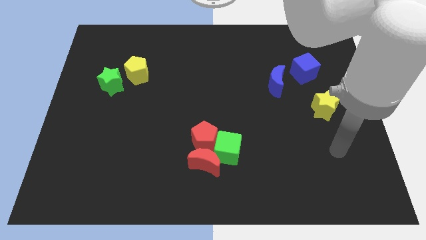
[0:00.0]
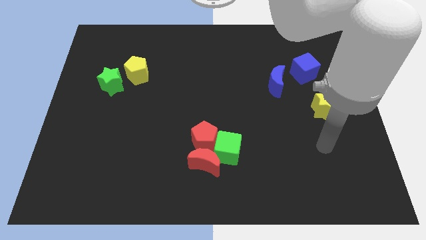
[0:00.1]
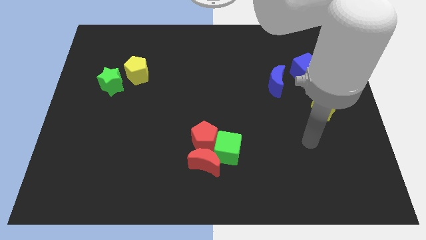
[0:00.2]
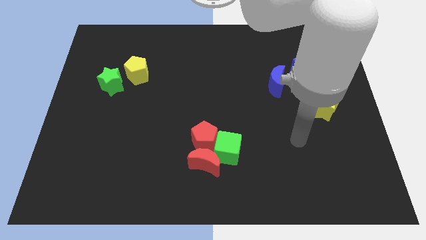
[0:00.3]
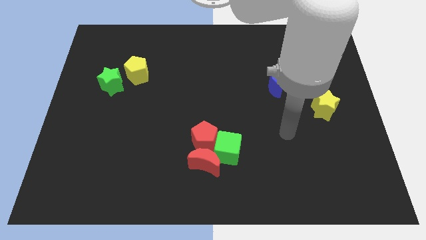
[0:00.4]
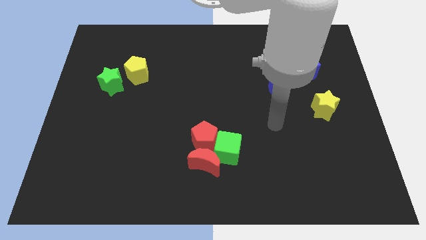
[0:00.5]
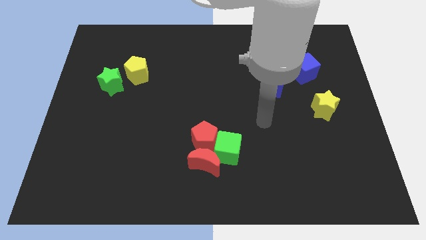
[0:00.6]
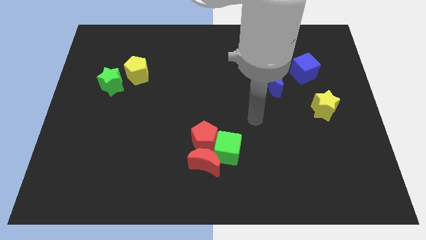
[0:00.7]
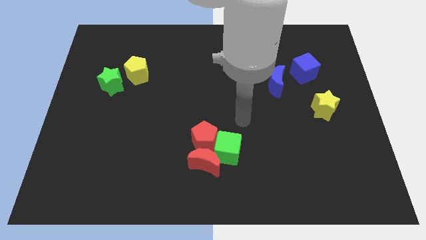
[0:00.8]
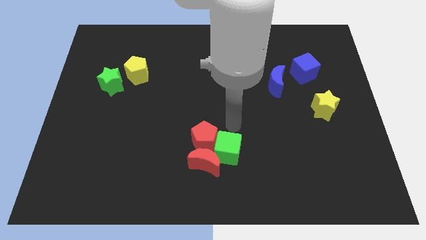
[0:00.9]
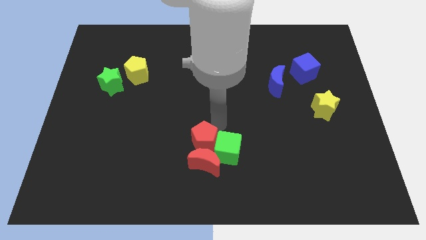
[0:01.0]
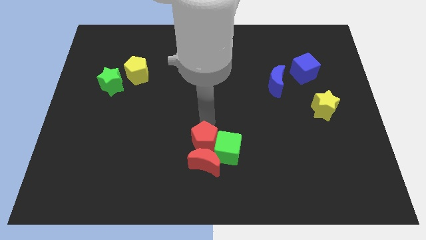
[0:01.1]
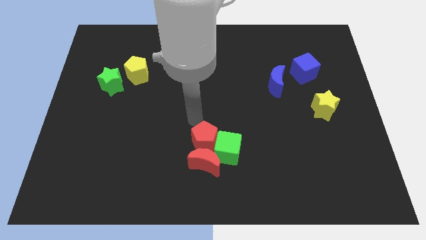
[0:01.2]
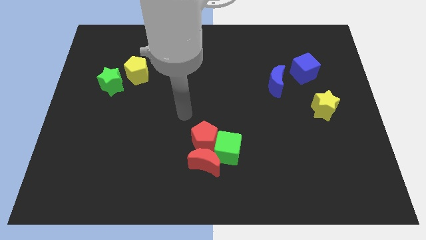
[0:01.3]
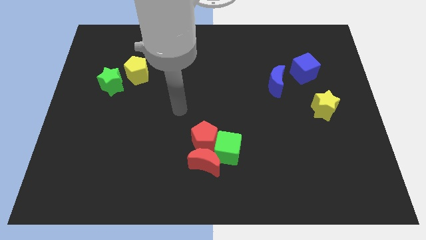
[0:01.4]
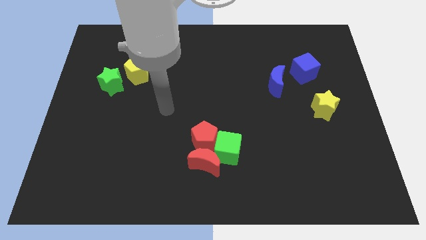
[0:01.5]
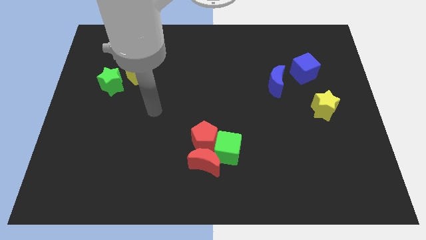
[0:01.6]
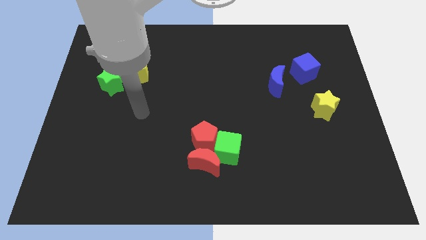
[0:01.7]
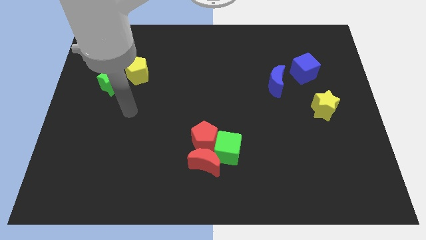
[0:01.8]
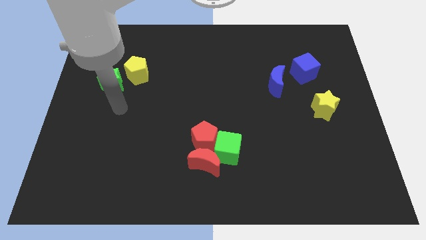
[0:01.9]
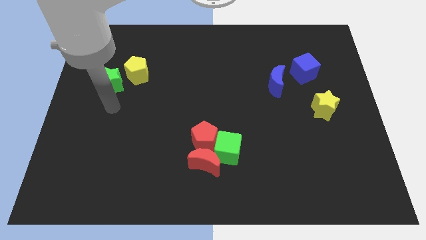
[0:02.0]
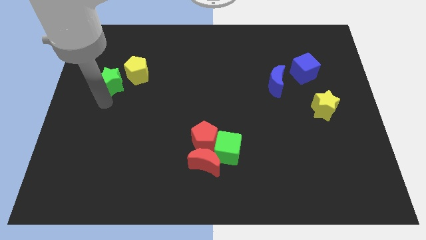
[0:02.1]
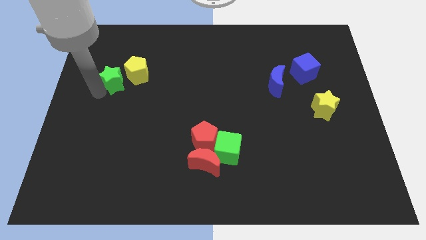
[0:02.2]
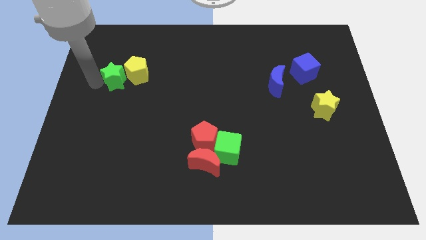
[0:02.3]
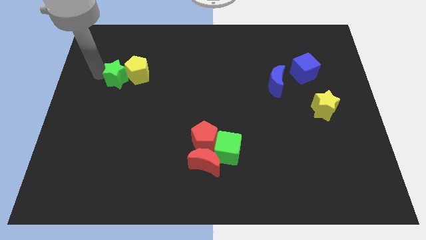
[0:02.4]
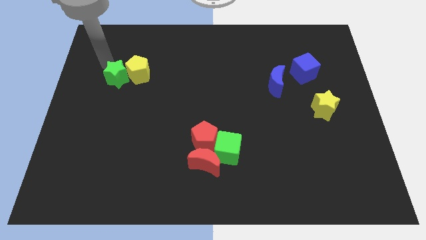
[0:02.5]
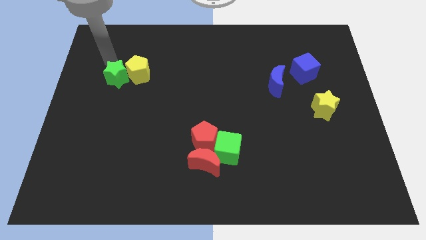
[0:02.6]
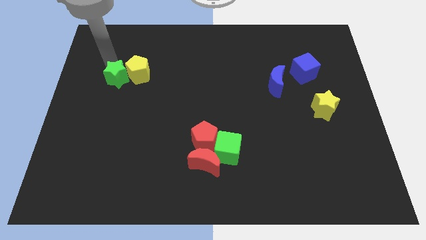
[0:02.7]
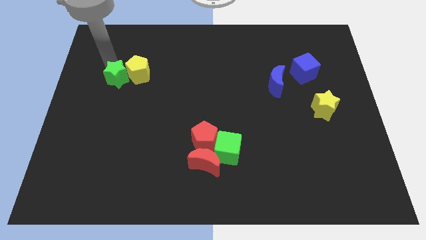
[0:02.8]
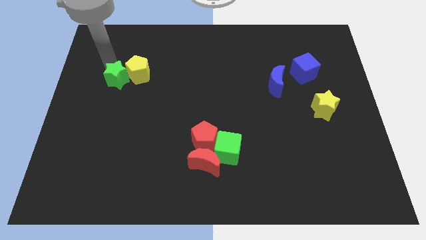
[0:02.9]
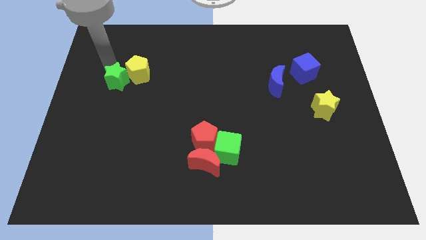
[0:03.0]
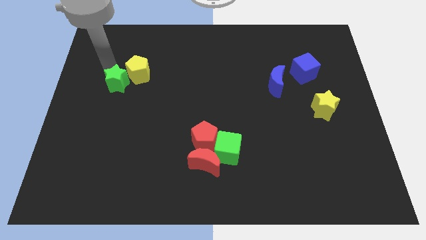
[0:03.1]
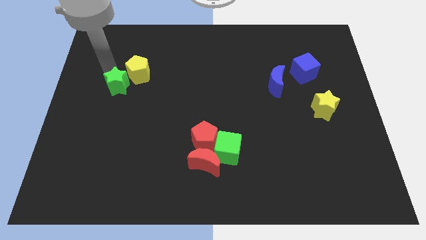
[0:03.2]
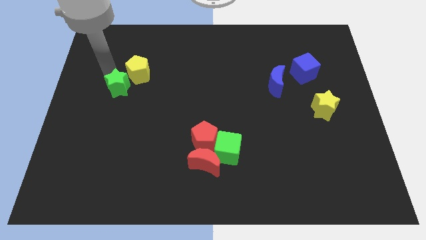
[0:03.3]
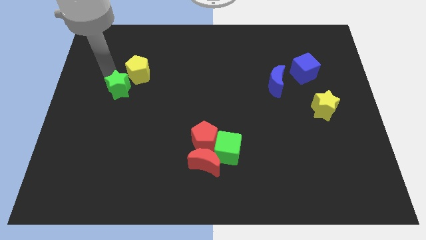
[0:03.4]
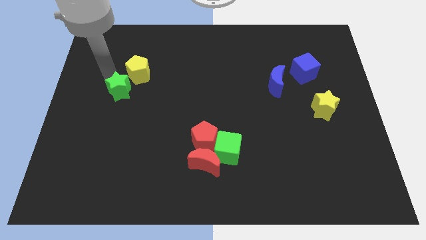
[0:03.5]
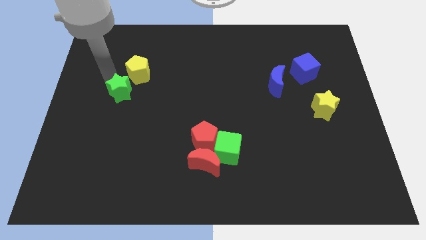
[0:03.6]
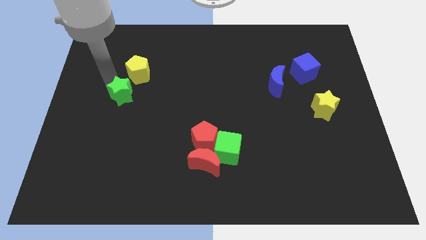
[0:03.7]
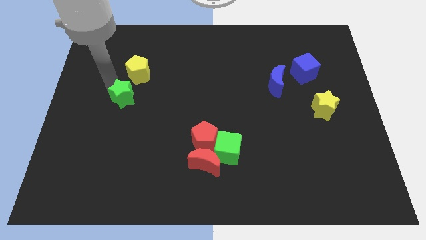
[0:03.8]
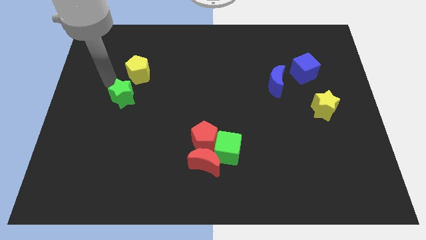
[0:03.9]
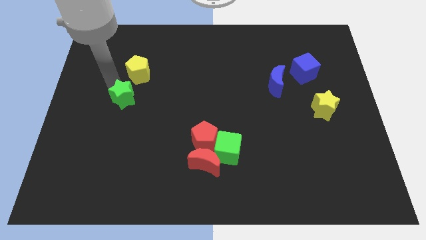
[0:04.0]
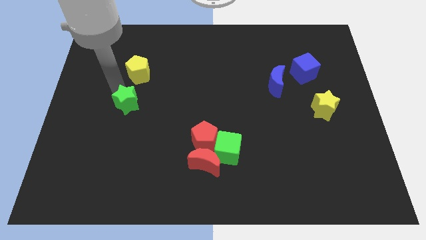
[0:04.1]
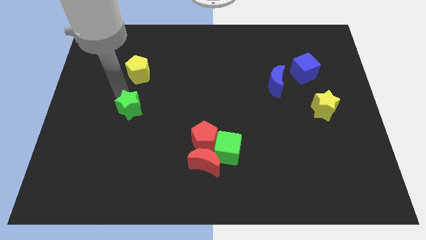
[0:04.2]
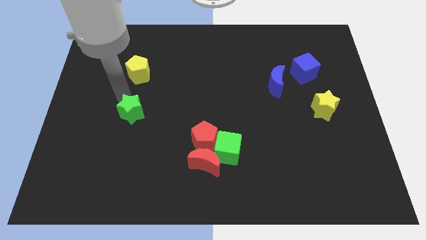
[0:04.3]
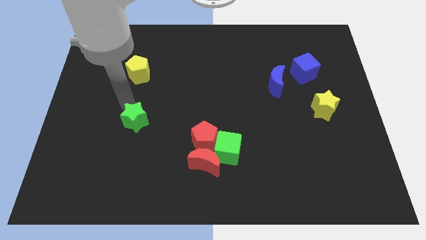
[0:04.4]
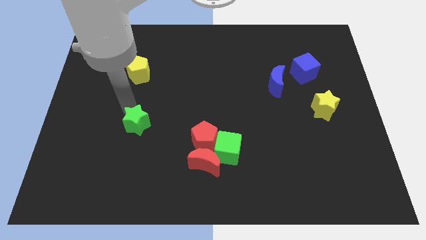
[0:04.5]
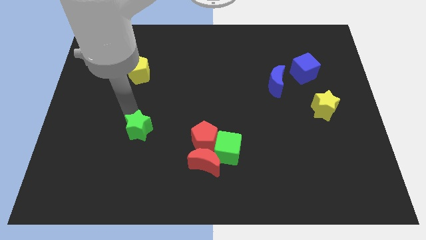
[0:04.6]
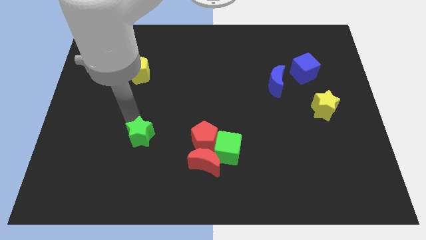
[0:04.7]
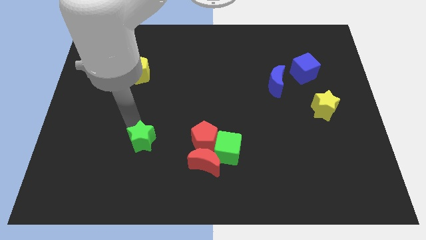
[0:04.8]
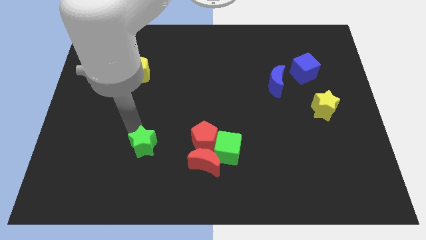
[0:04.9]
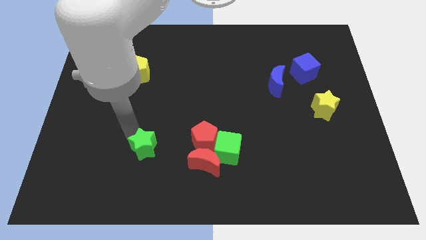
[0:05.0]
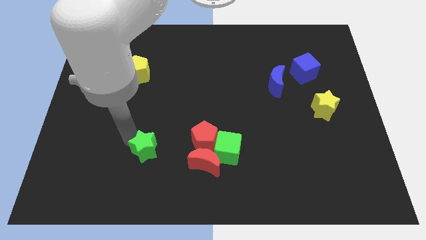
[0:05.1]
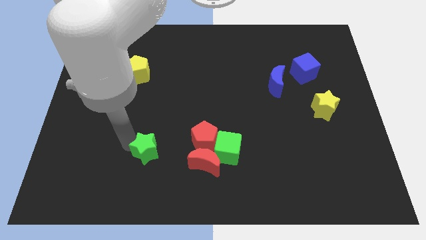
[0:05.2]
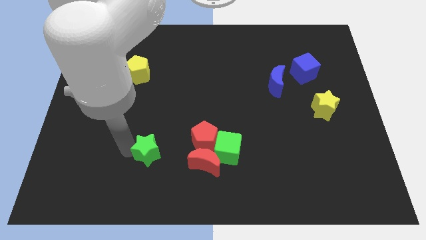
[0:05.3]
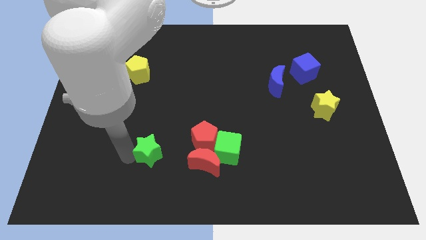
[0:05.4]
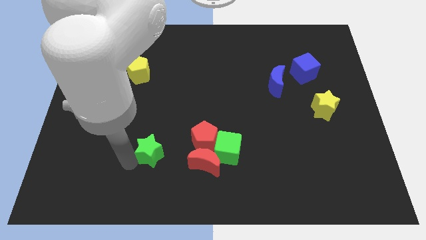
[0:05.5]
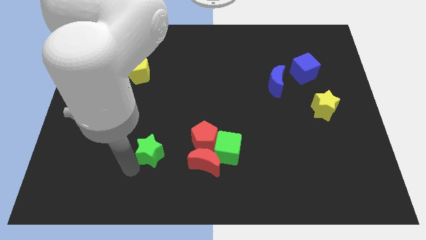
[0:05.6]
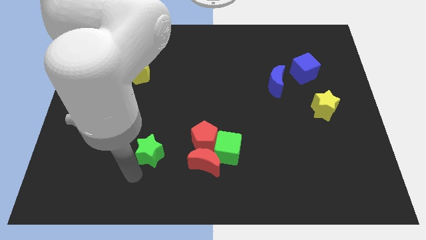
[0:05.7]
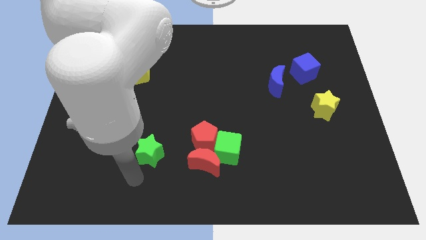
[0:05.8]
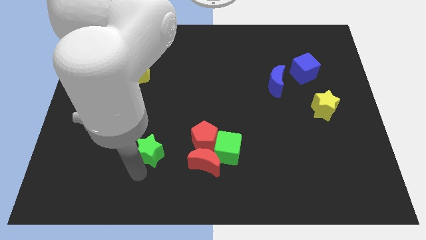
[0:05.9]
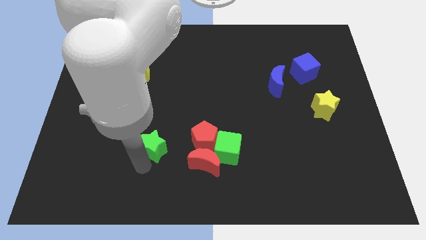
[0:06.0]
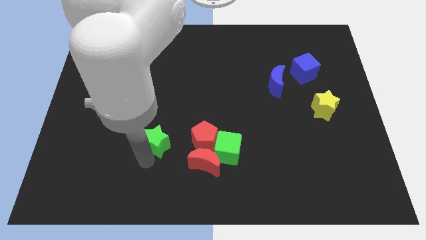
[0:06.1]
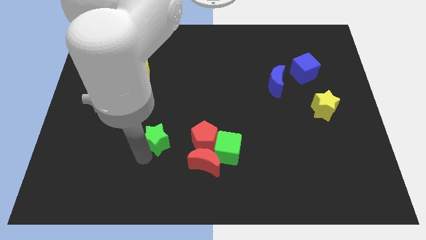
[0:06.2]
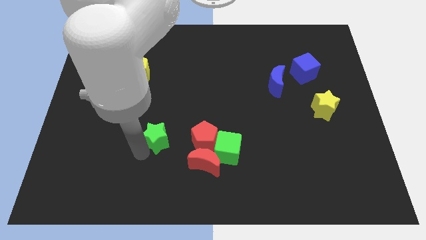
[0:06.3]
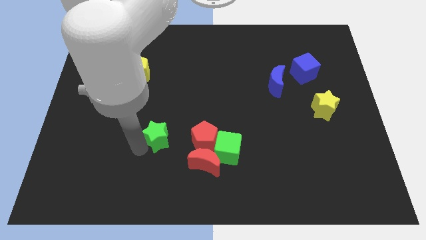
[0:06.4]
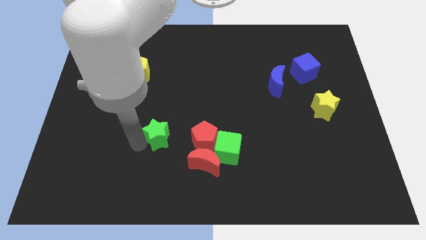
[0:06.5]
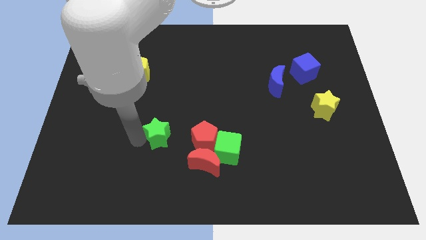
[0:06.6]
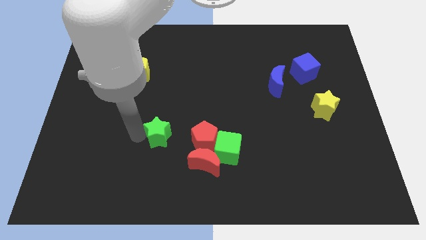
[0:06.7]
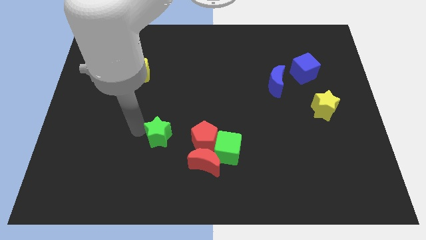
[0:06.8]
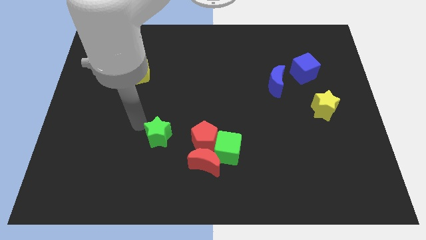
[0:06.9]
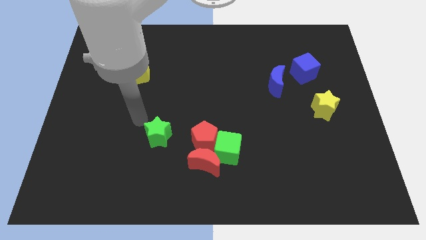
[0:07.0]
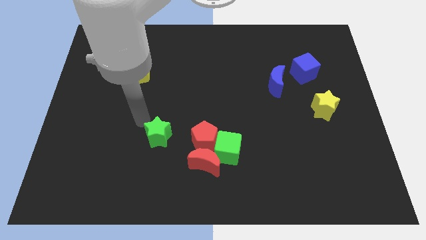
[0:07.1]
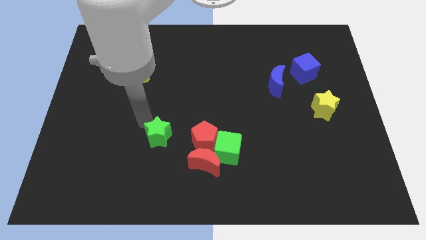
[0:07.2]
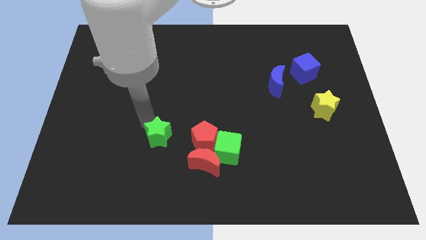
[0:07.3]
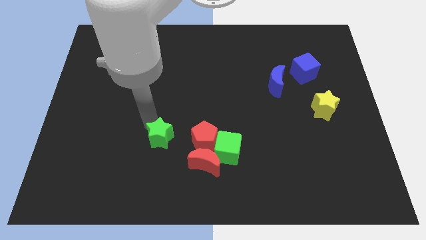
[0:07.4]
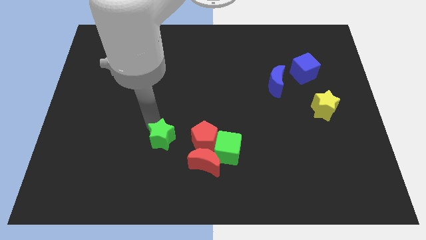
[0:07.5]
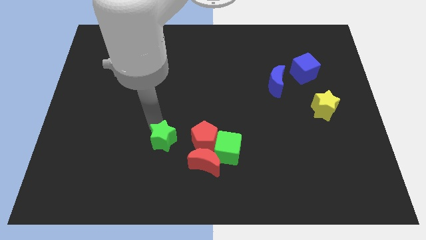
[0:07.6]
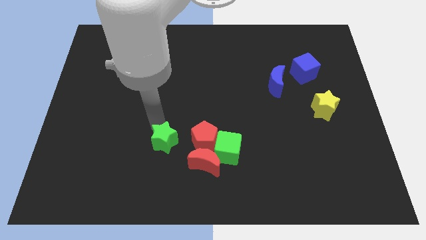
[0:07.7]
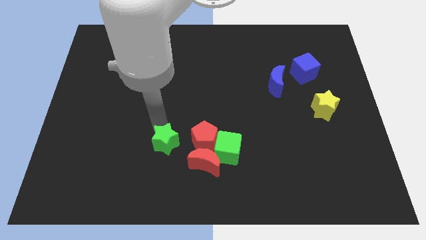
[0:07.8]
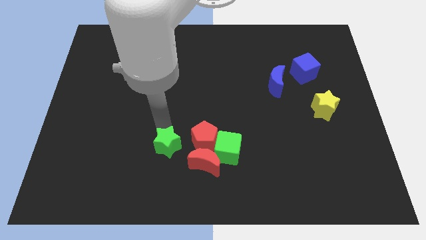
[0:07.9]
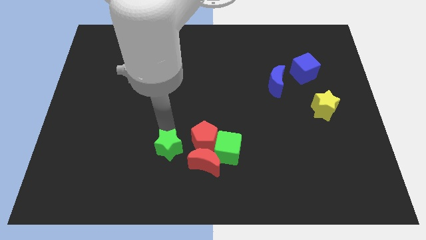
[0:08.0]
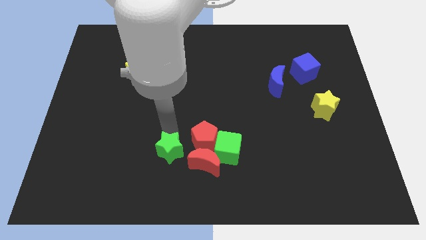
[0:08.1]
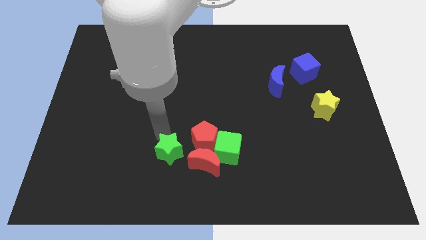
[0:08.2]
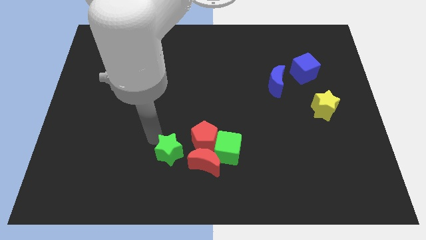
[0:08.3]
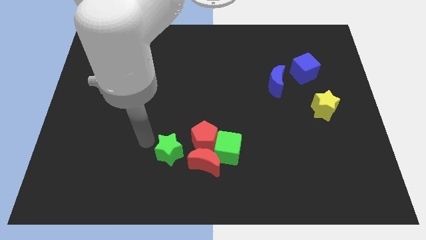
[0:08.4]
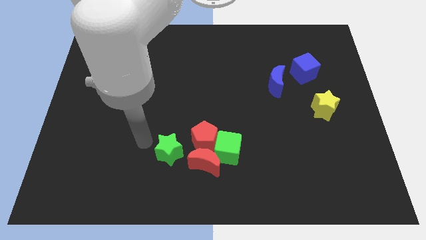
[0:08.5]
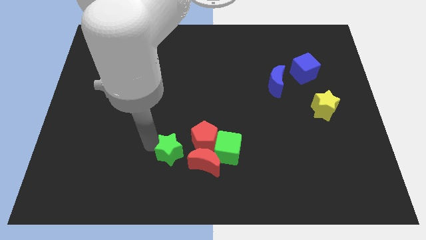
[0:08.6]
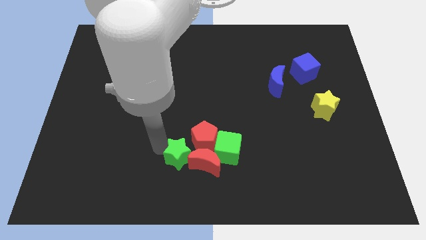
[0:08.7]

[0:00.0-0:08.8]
put the green star to the red moon
